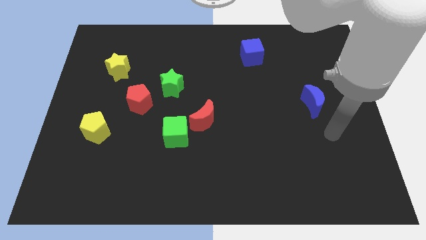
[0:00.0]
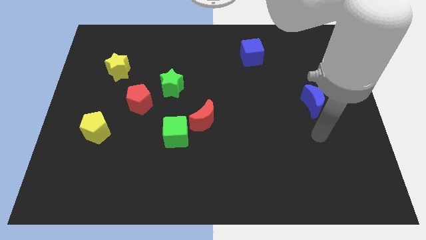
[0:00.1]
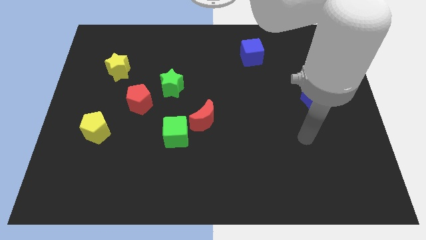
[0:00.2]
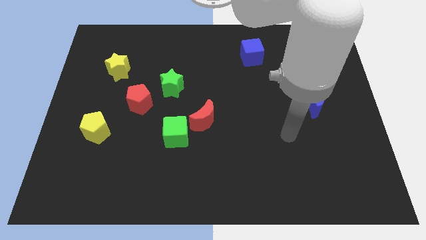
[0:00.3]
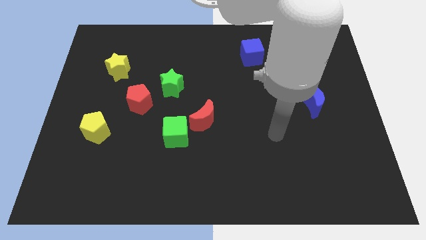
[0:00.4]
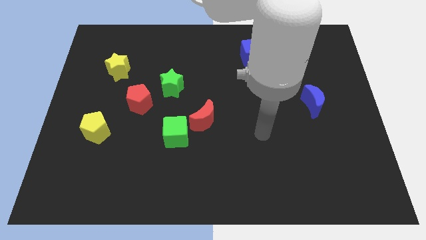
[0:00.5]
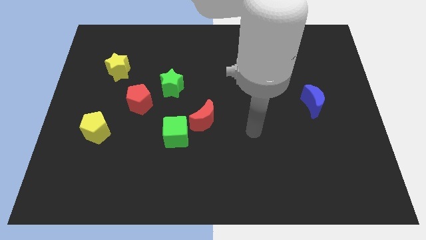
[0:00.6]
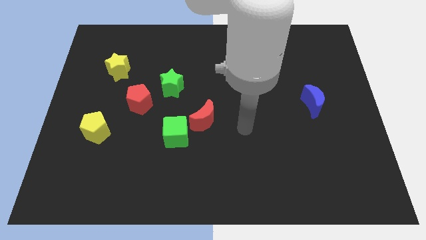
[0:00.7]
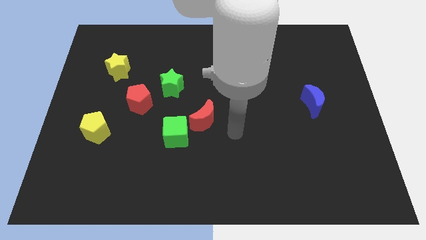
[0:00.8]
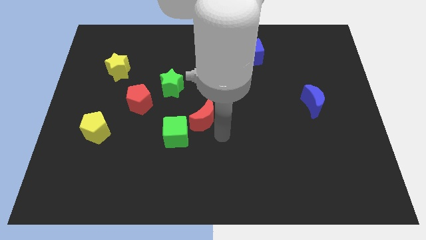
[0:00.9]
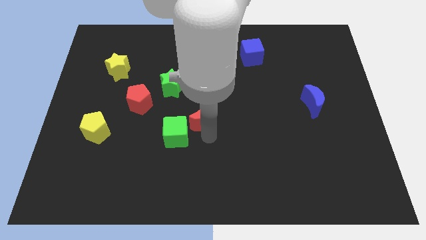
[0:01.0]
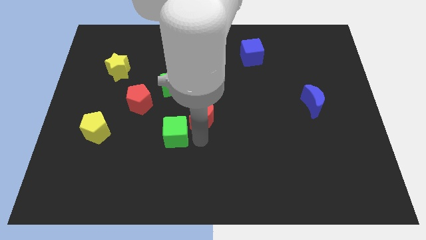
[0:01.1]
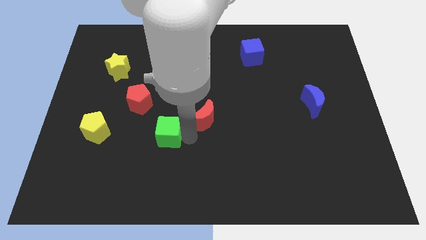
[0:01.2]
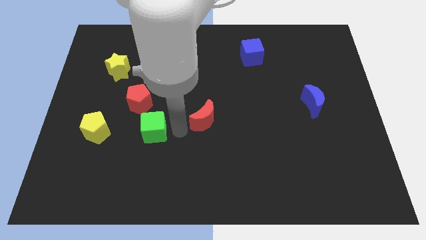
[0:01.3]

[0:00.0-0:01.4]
pull the red moon apart from the green cube

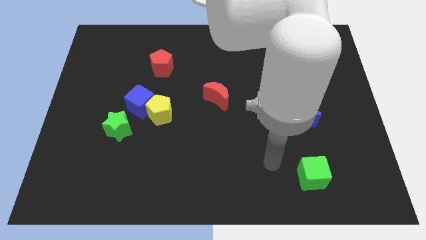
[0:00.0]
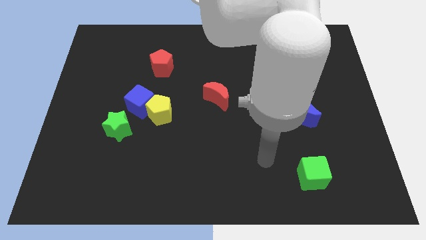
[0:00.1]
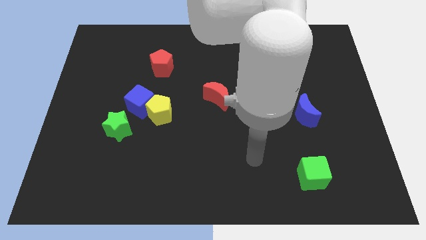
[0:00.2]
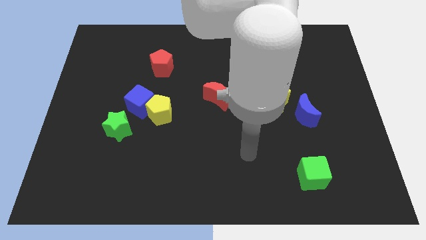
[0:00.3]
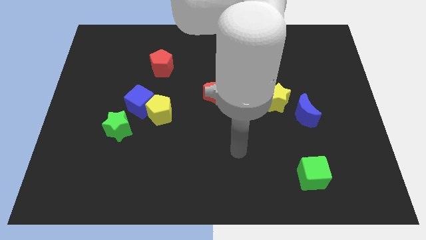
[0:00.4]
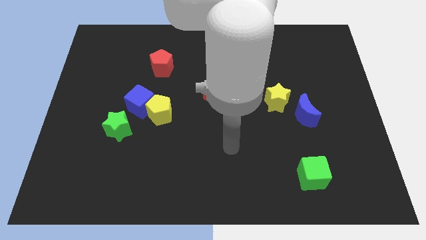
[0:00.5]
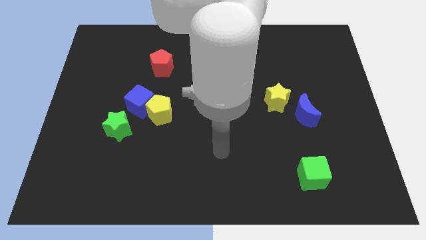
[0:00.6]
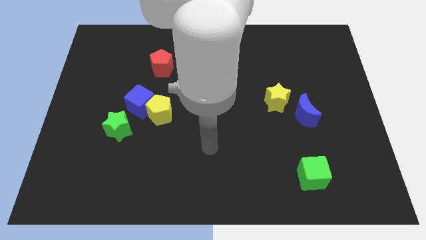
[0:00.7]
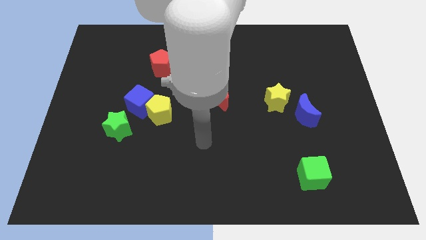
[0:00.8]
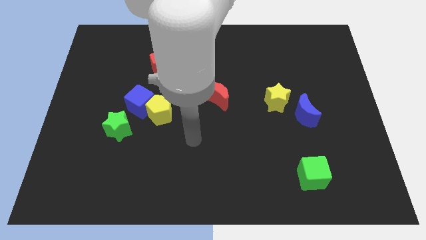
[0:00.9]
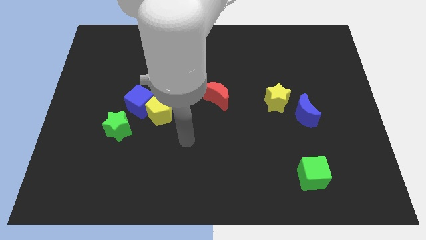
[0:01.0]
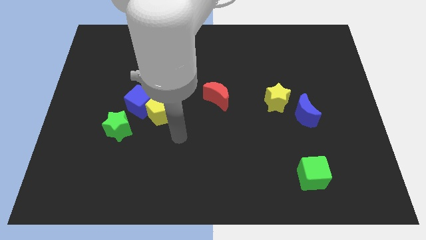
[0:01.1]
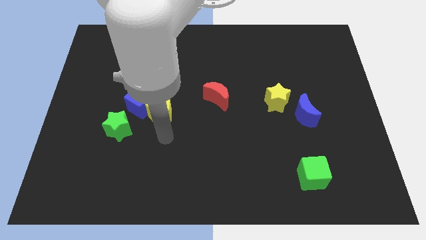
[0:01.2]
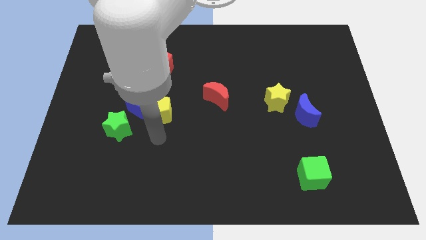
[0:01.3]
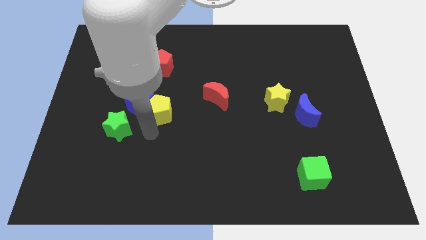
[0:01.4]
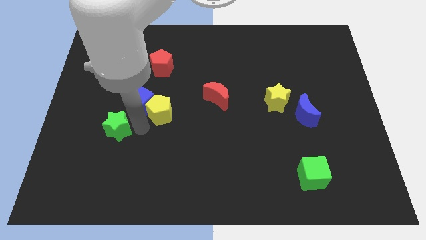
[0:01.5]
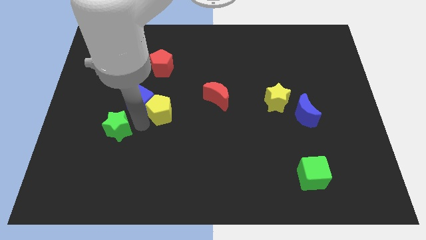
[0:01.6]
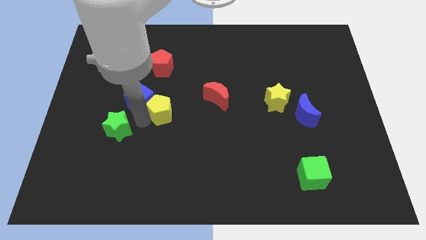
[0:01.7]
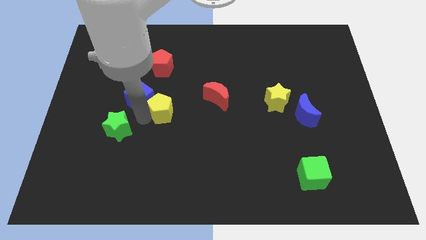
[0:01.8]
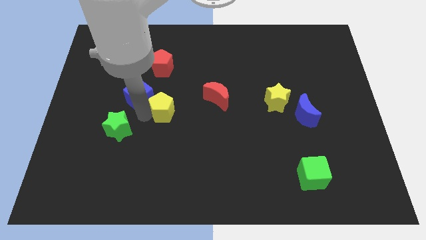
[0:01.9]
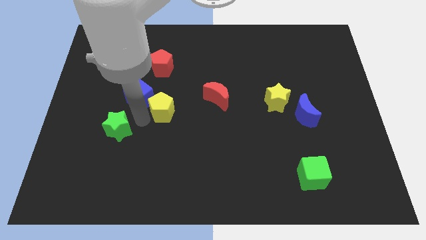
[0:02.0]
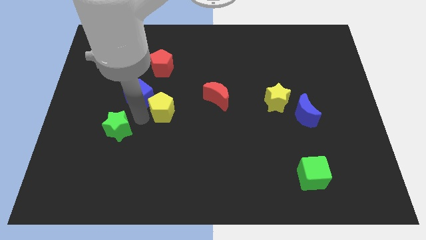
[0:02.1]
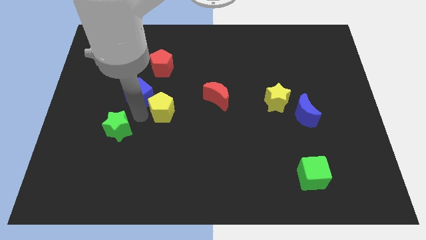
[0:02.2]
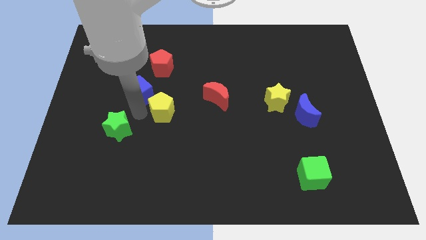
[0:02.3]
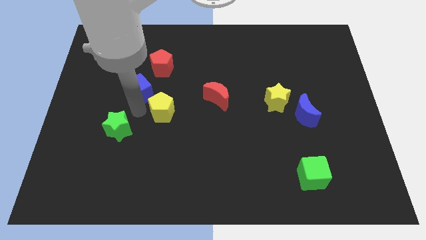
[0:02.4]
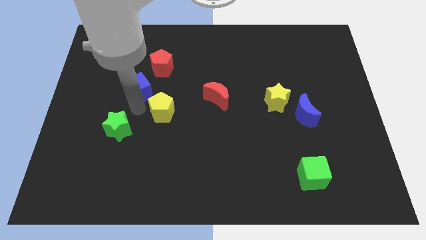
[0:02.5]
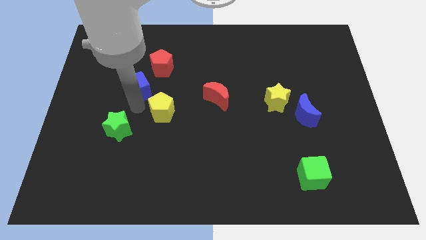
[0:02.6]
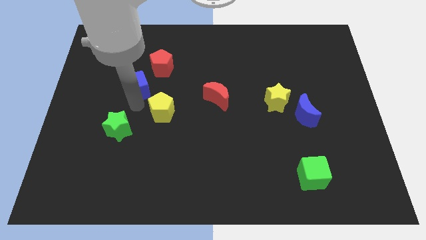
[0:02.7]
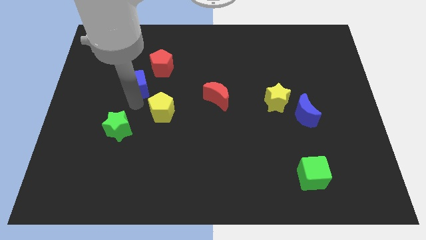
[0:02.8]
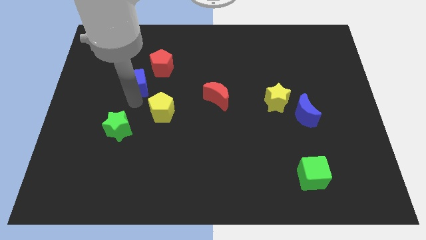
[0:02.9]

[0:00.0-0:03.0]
pull the blue cube apart from the yellow pentagon and green star

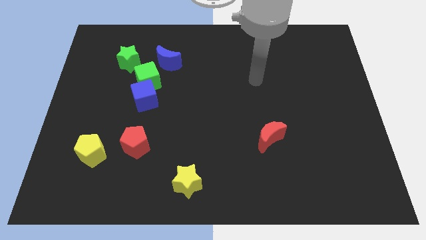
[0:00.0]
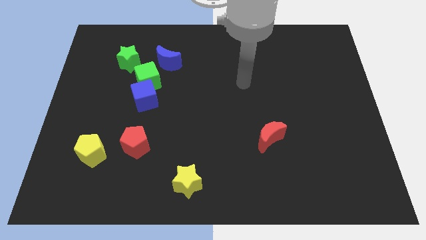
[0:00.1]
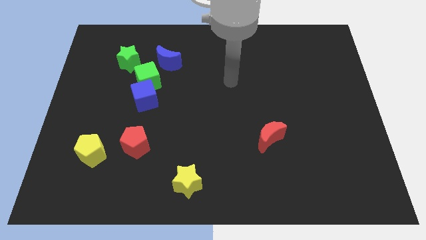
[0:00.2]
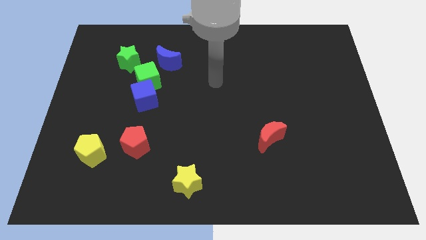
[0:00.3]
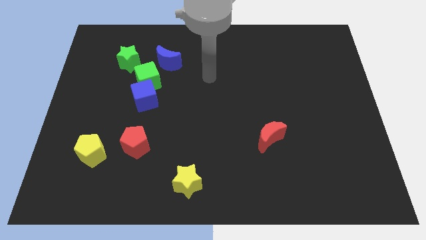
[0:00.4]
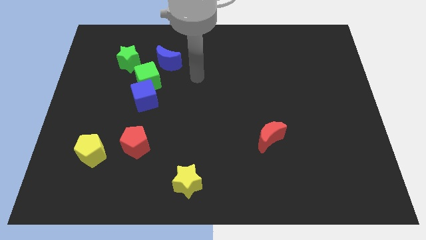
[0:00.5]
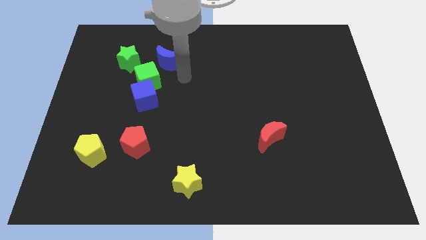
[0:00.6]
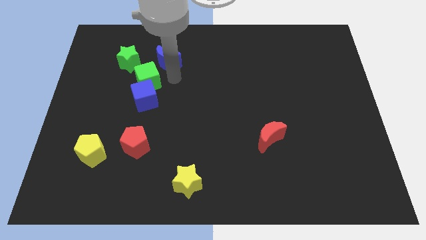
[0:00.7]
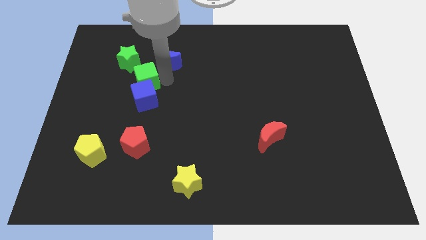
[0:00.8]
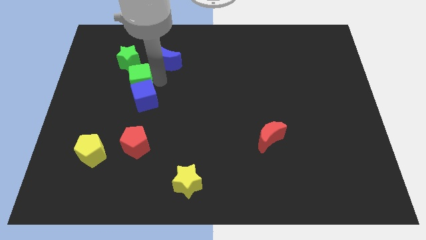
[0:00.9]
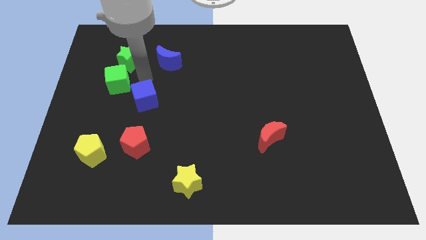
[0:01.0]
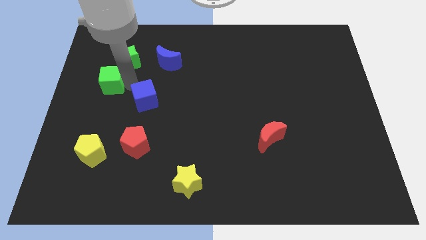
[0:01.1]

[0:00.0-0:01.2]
pull the blue cube apart from the green cube

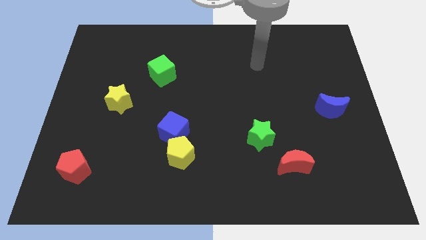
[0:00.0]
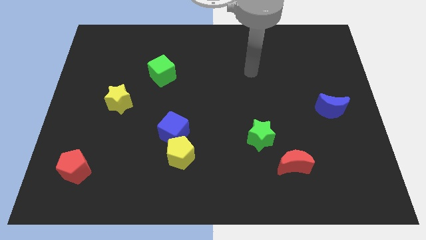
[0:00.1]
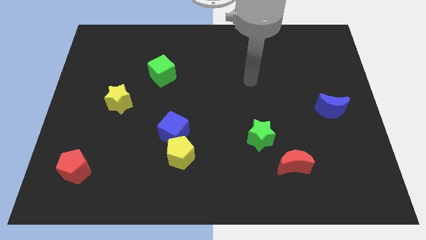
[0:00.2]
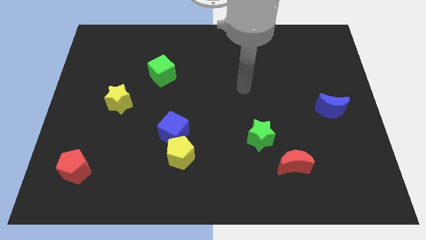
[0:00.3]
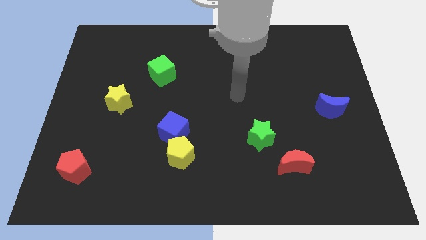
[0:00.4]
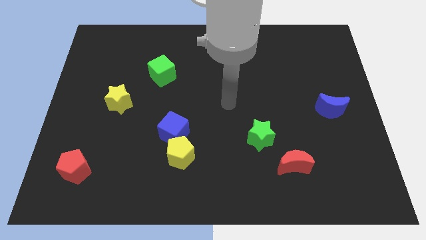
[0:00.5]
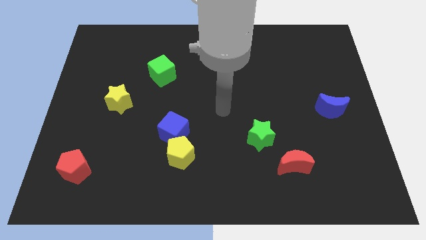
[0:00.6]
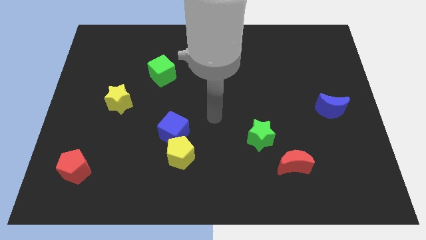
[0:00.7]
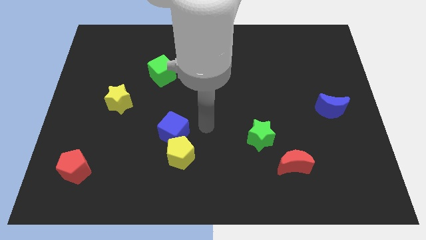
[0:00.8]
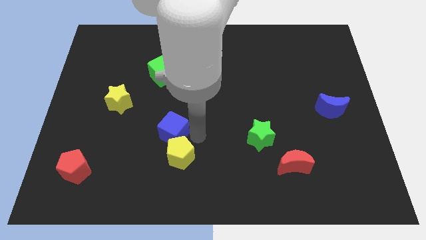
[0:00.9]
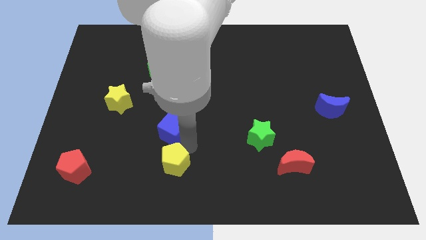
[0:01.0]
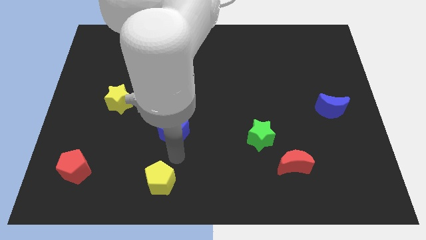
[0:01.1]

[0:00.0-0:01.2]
move the blue cube away from the yellow pentagon

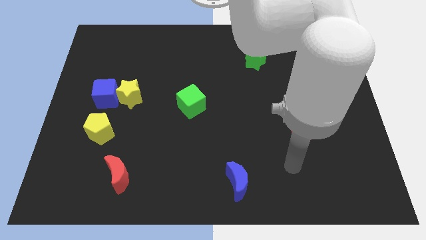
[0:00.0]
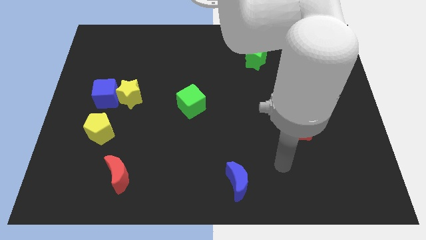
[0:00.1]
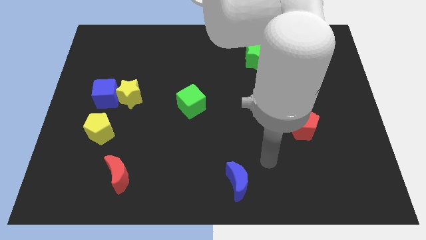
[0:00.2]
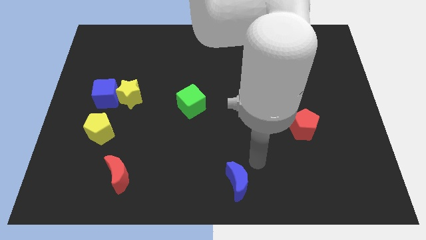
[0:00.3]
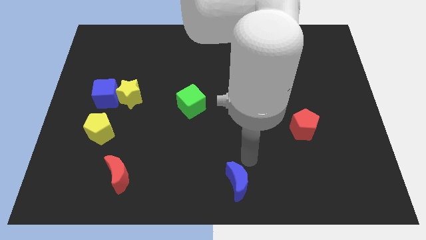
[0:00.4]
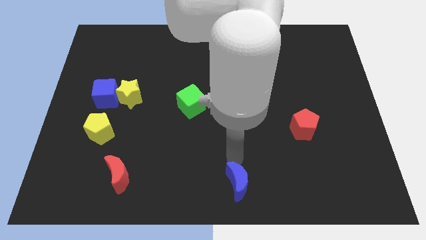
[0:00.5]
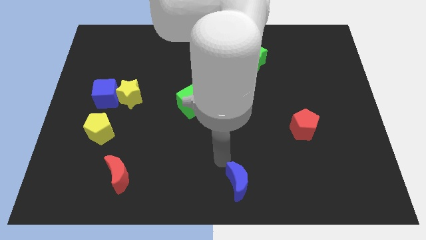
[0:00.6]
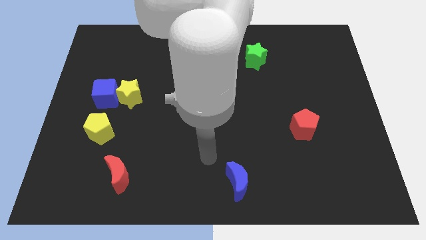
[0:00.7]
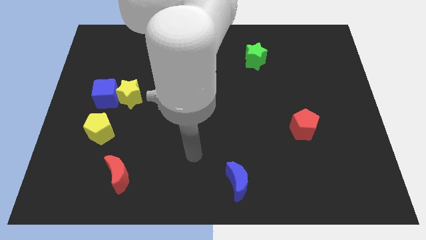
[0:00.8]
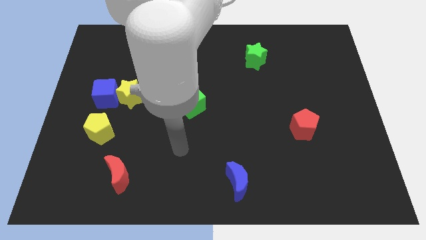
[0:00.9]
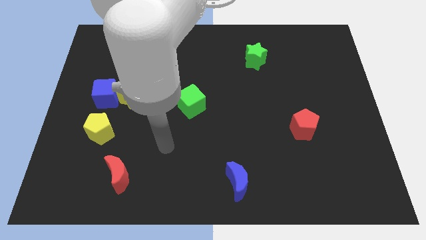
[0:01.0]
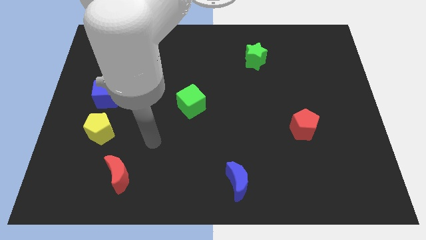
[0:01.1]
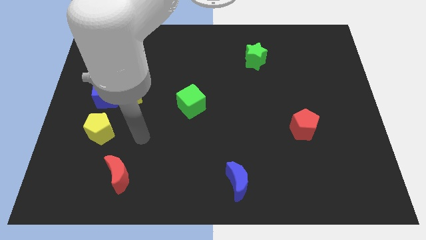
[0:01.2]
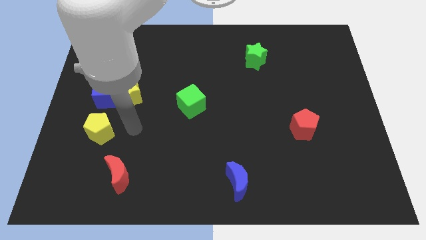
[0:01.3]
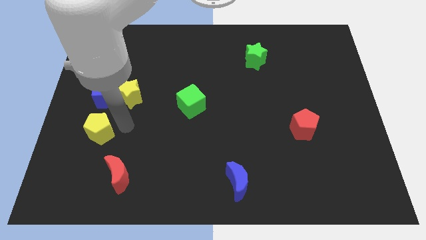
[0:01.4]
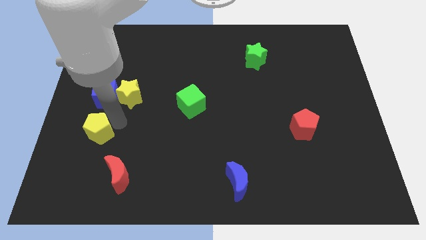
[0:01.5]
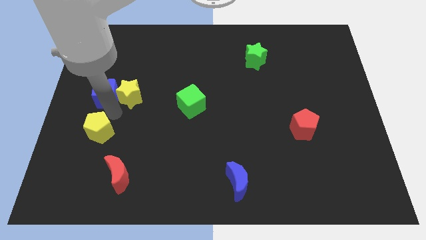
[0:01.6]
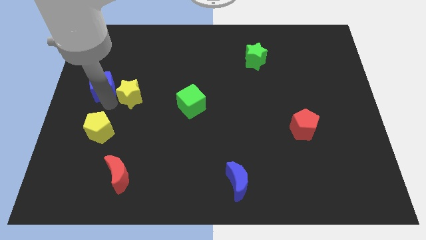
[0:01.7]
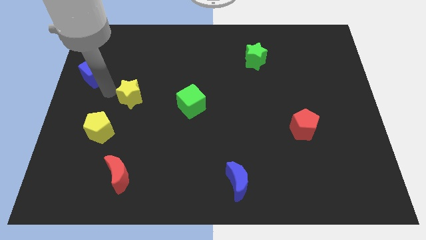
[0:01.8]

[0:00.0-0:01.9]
separate the yellow star from the blue cube

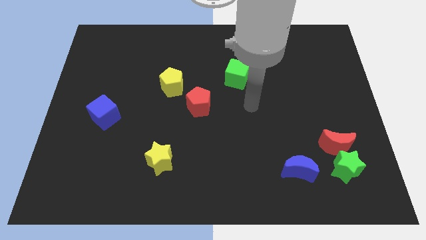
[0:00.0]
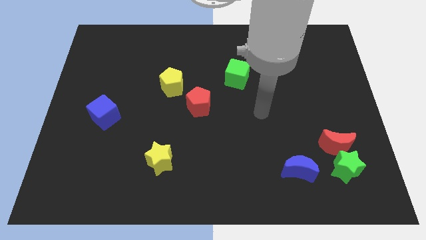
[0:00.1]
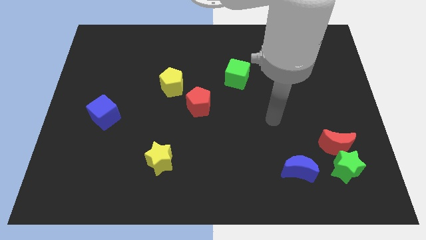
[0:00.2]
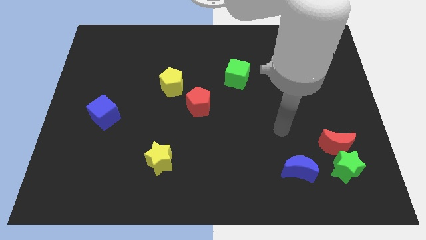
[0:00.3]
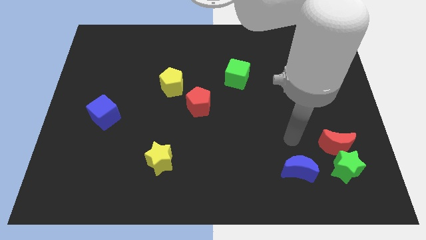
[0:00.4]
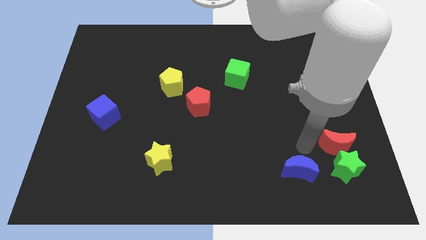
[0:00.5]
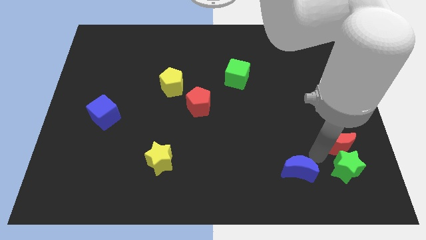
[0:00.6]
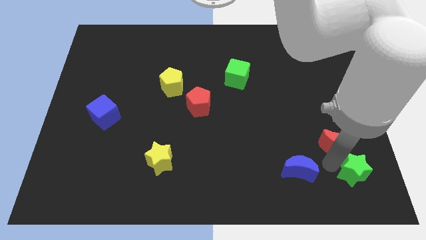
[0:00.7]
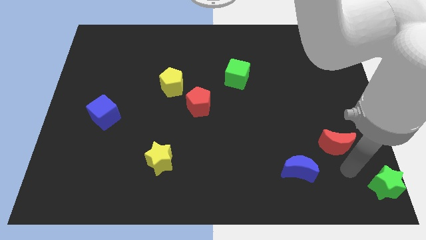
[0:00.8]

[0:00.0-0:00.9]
separate the red moon from the green star
